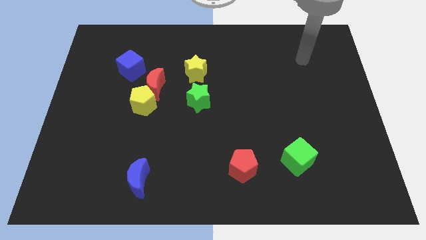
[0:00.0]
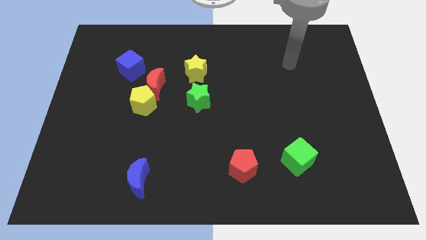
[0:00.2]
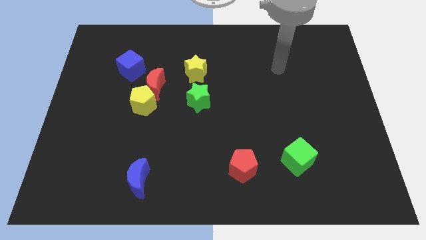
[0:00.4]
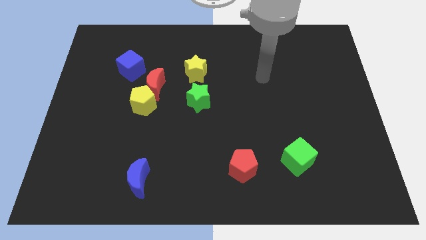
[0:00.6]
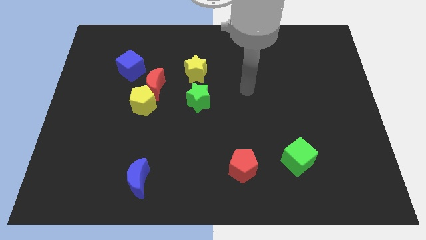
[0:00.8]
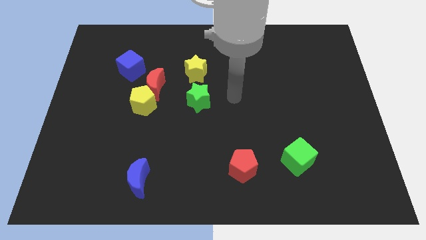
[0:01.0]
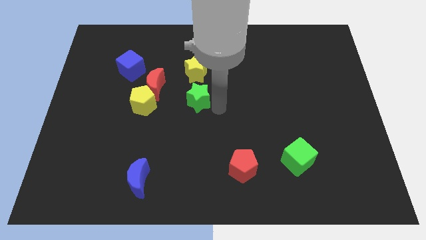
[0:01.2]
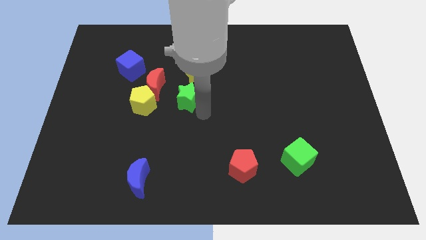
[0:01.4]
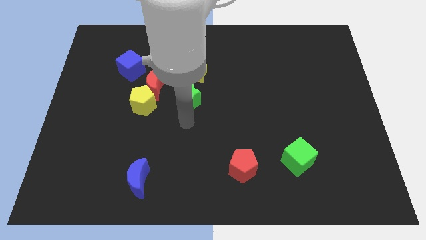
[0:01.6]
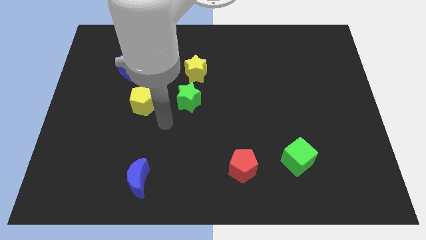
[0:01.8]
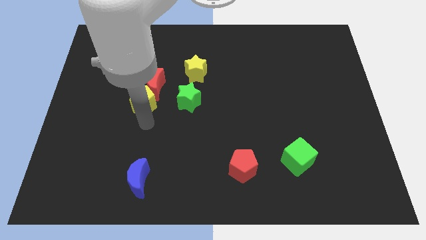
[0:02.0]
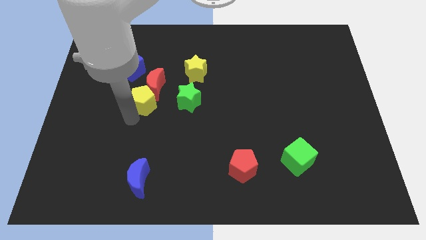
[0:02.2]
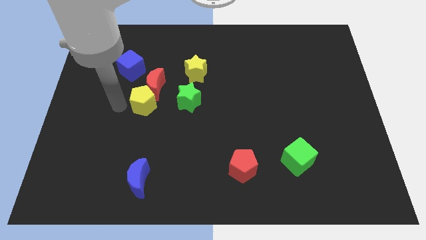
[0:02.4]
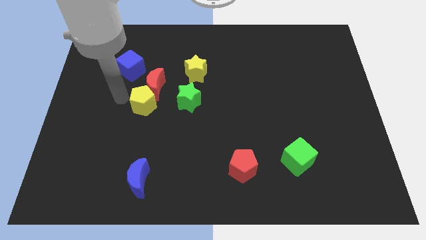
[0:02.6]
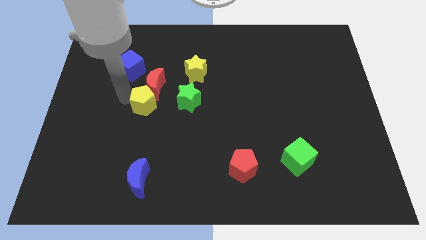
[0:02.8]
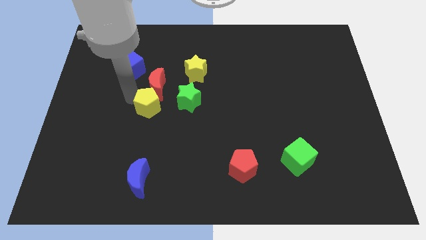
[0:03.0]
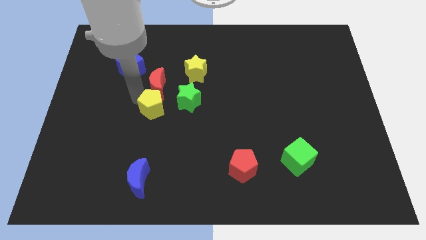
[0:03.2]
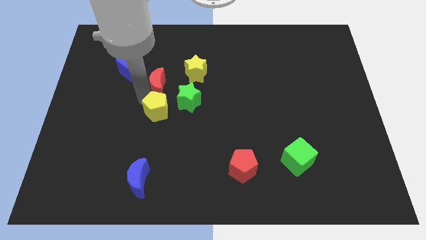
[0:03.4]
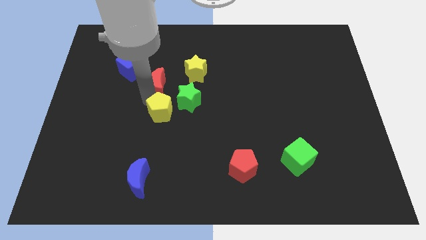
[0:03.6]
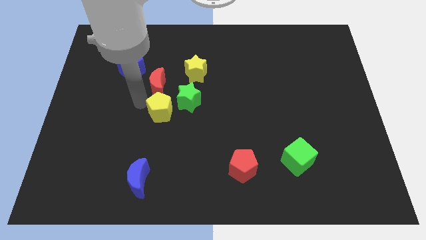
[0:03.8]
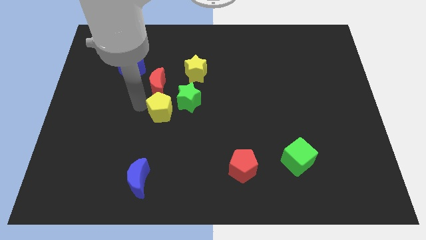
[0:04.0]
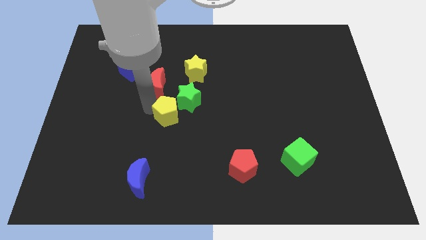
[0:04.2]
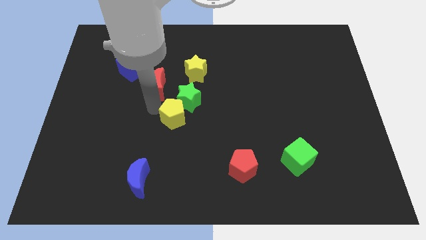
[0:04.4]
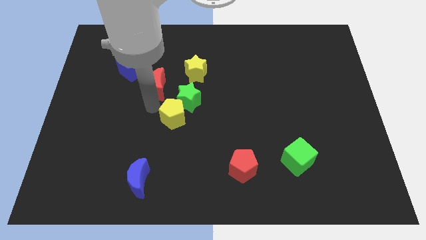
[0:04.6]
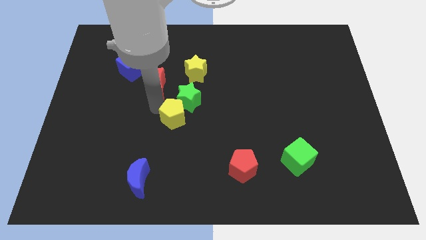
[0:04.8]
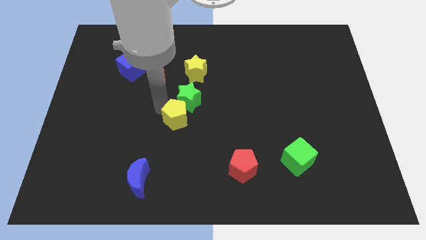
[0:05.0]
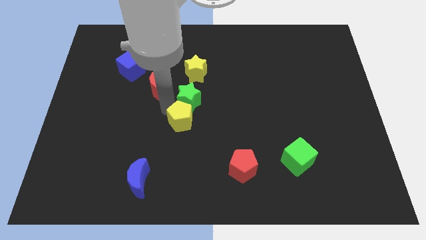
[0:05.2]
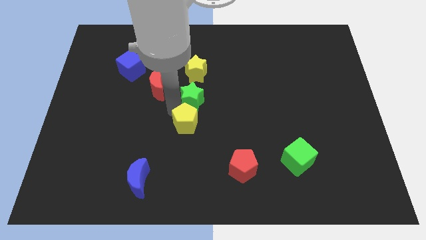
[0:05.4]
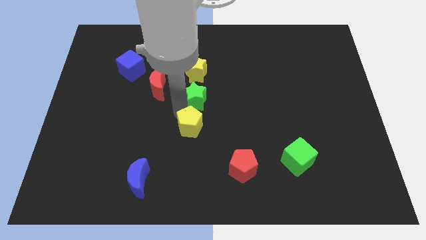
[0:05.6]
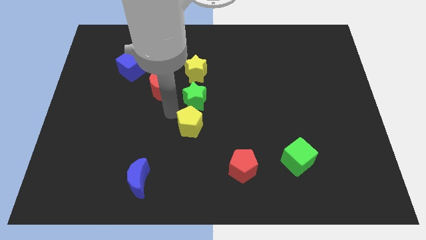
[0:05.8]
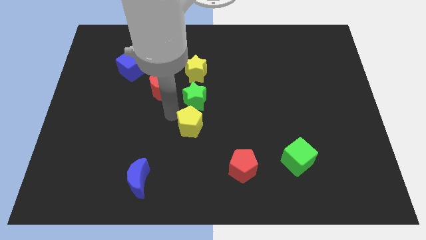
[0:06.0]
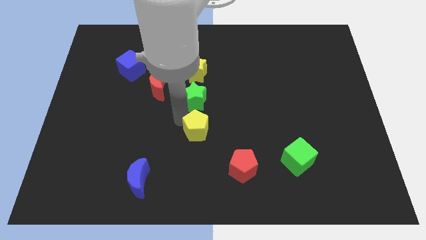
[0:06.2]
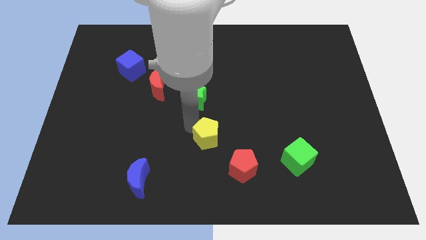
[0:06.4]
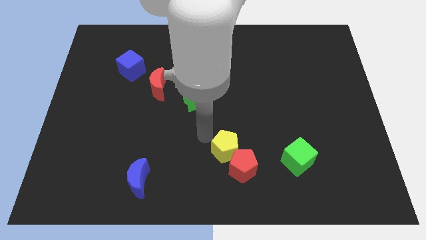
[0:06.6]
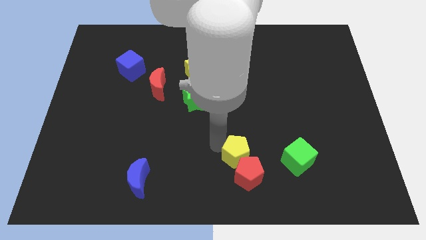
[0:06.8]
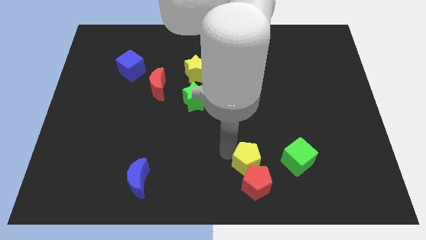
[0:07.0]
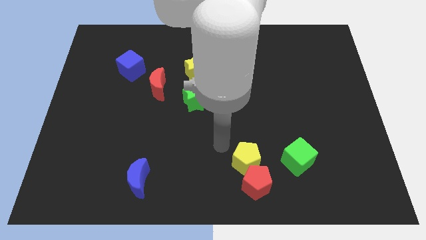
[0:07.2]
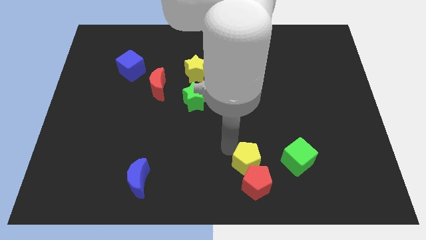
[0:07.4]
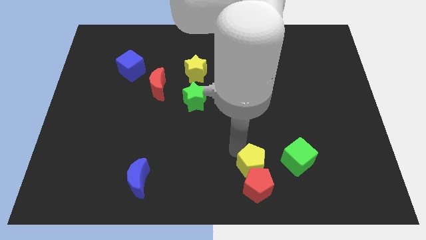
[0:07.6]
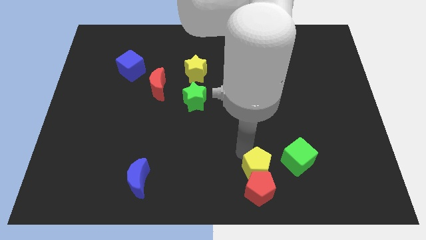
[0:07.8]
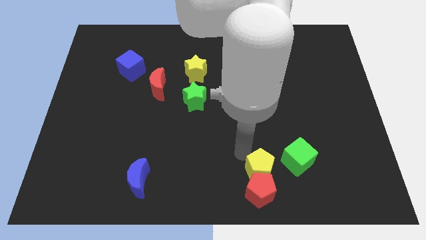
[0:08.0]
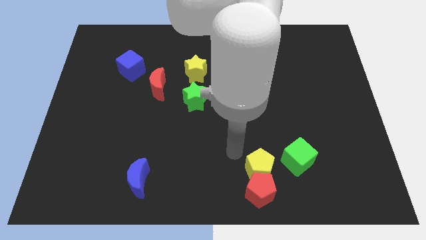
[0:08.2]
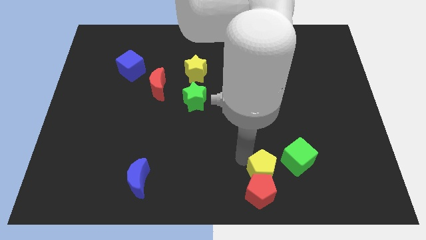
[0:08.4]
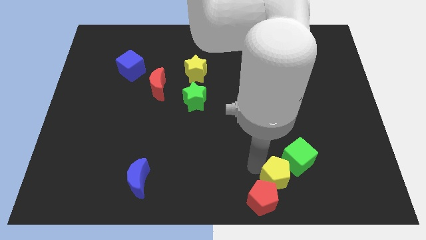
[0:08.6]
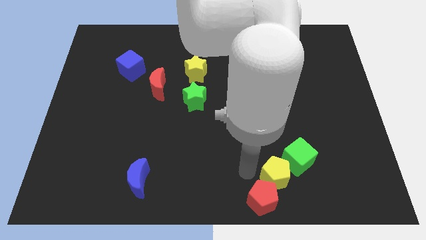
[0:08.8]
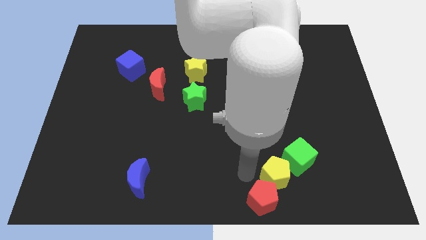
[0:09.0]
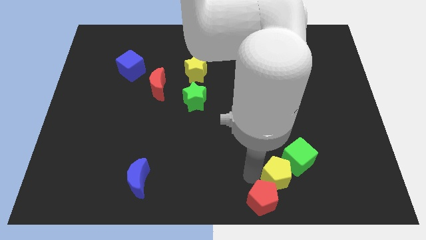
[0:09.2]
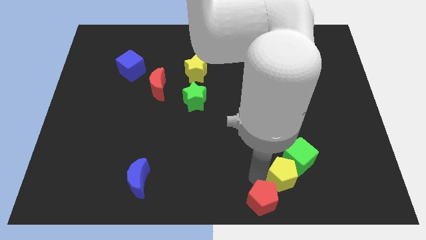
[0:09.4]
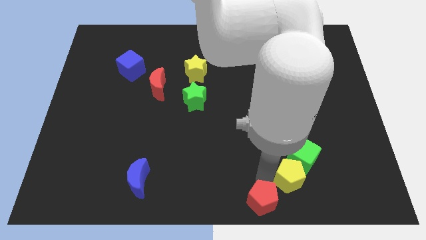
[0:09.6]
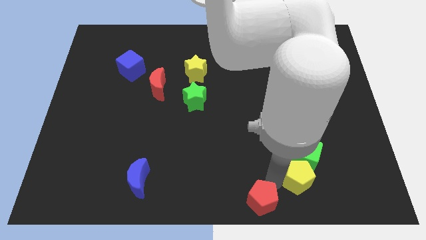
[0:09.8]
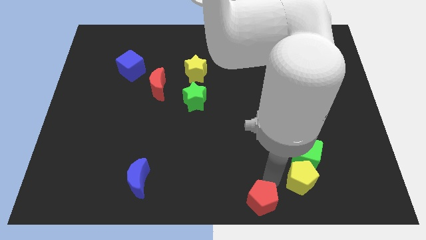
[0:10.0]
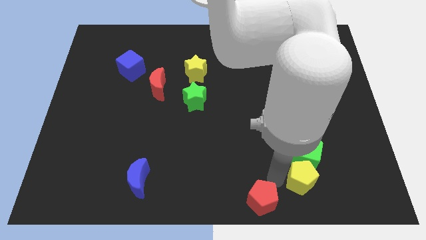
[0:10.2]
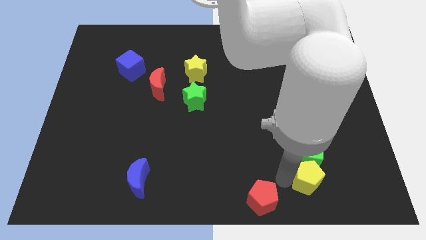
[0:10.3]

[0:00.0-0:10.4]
slide the yellow pentagon diagonally down and to the right of the green cube

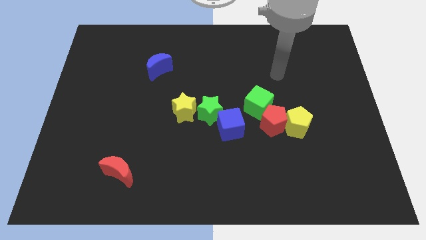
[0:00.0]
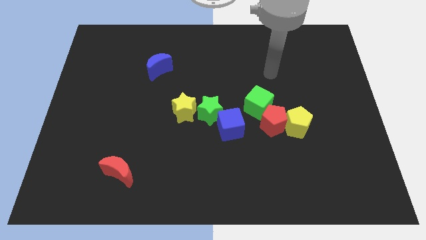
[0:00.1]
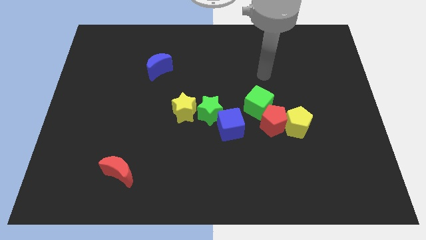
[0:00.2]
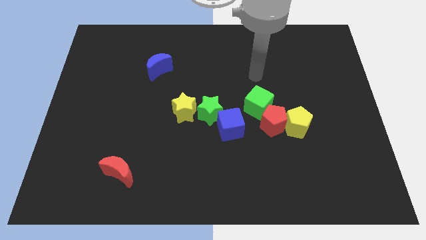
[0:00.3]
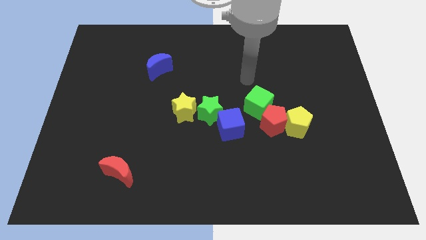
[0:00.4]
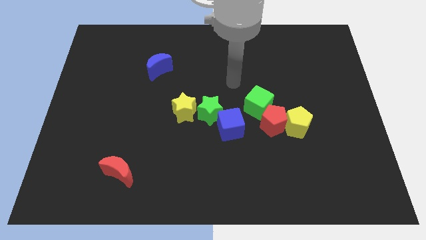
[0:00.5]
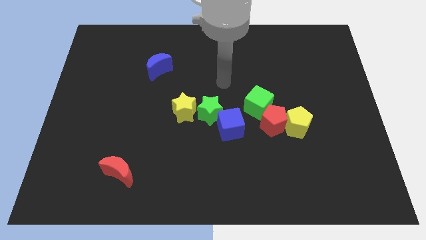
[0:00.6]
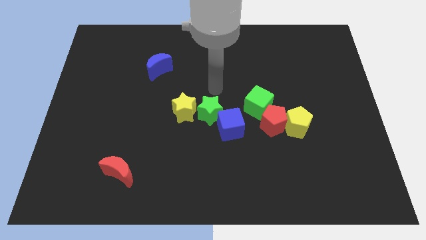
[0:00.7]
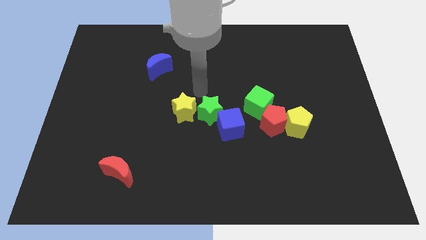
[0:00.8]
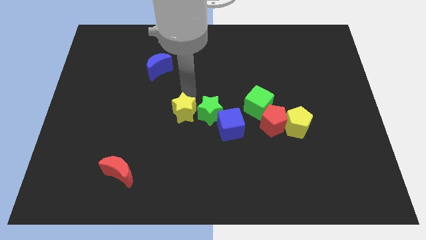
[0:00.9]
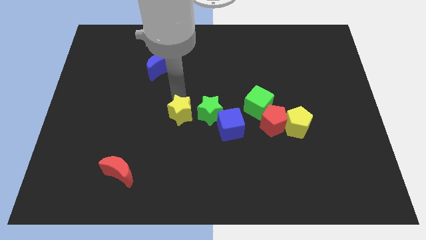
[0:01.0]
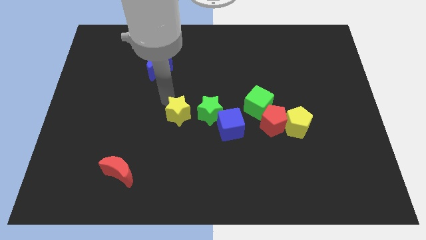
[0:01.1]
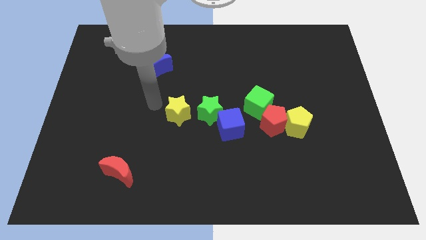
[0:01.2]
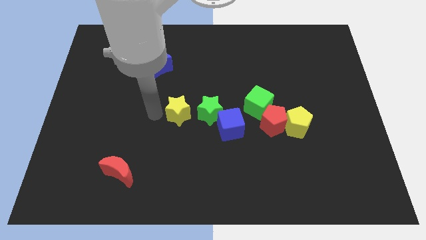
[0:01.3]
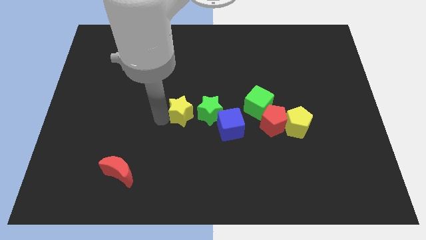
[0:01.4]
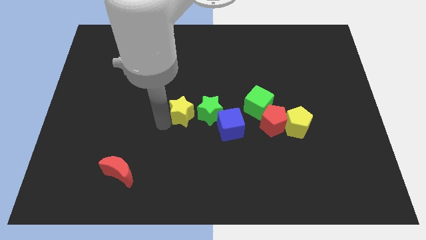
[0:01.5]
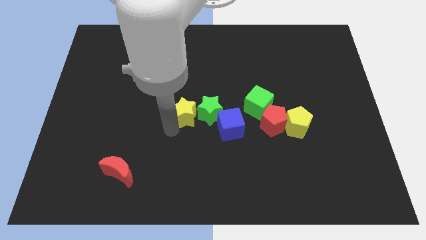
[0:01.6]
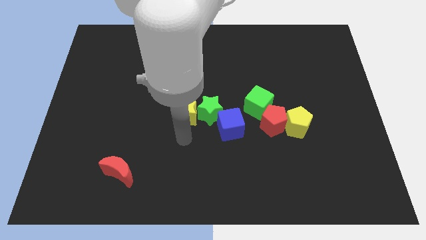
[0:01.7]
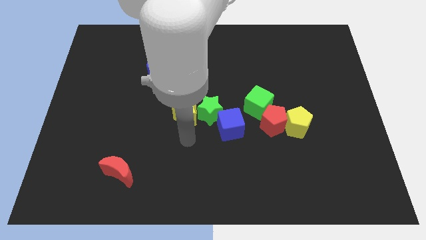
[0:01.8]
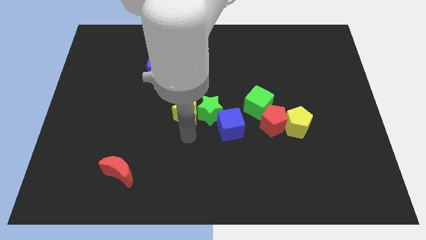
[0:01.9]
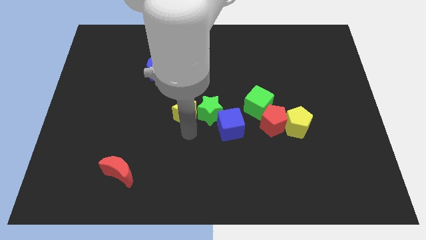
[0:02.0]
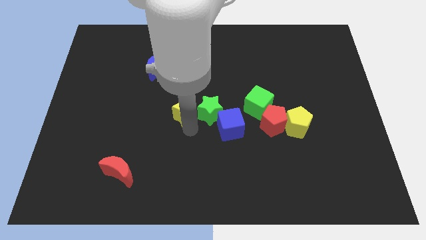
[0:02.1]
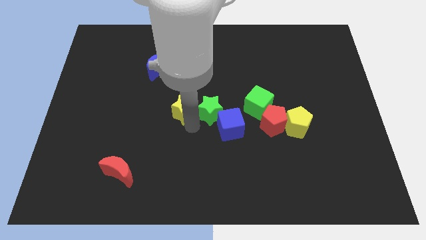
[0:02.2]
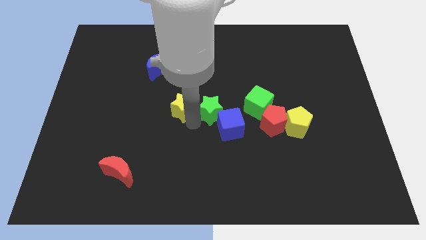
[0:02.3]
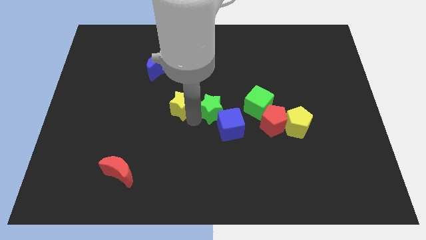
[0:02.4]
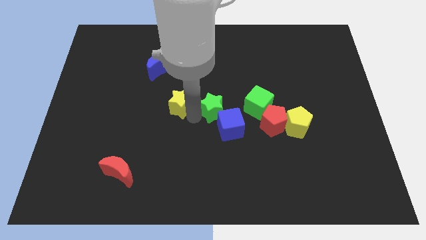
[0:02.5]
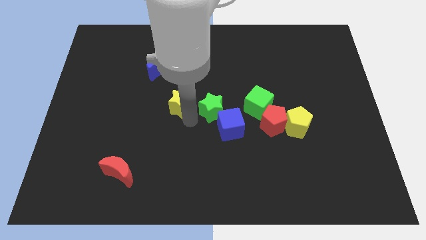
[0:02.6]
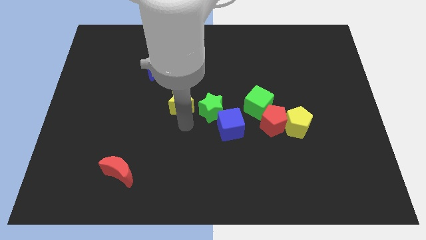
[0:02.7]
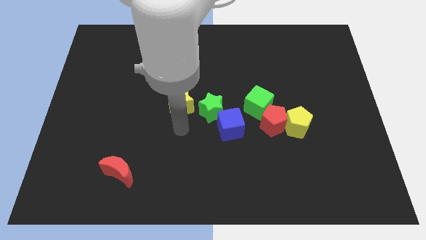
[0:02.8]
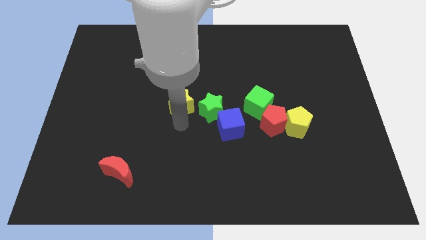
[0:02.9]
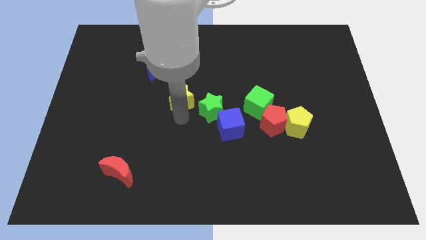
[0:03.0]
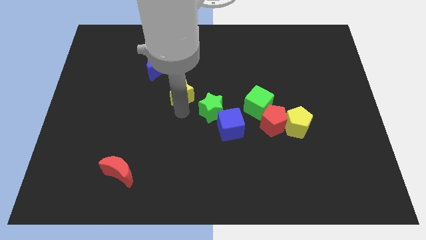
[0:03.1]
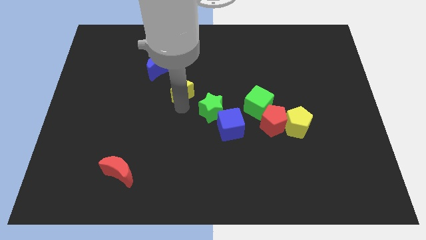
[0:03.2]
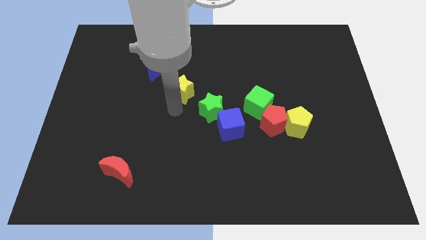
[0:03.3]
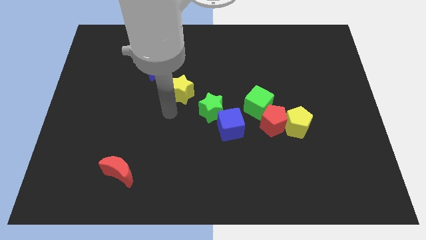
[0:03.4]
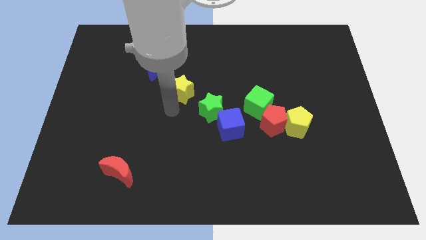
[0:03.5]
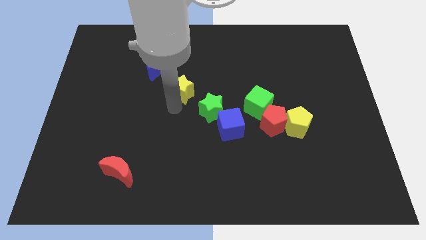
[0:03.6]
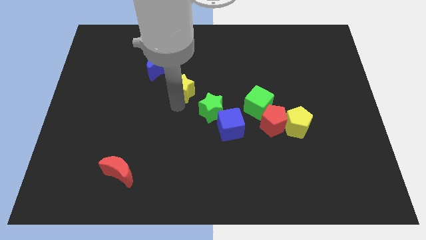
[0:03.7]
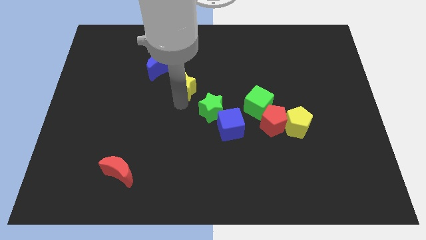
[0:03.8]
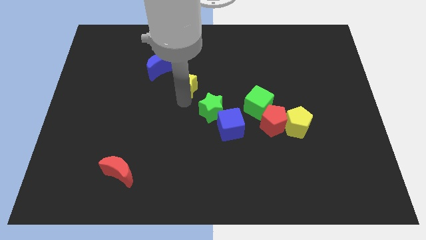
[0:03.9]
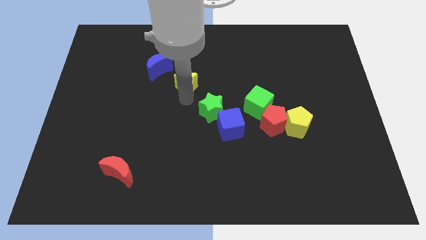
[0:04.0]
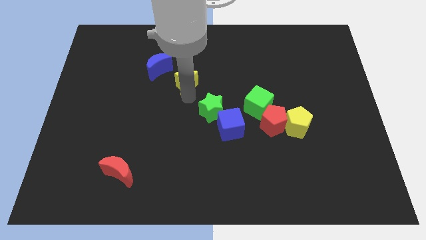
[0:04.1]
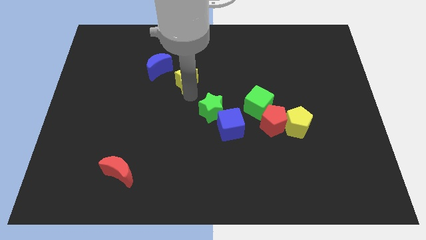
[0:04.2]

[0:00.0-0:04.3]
slide the yellow star to the right of the blue moon
